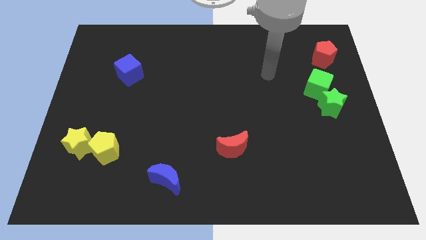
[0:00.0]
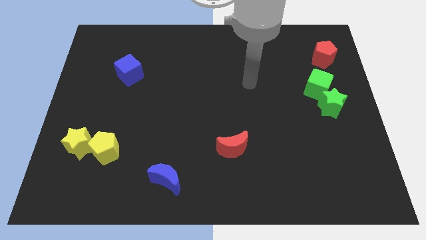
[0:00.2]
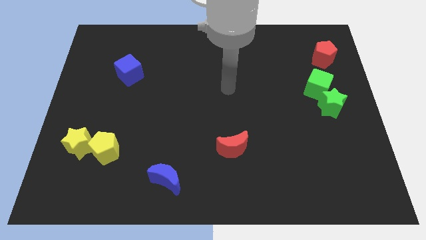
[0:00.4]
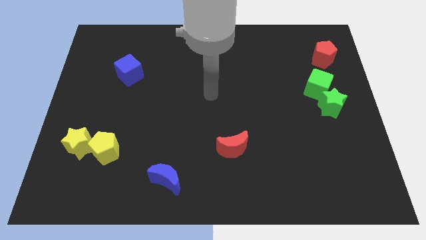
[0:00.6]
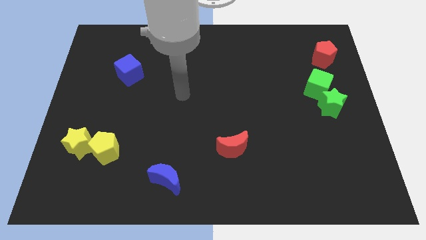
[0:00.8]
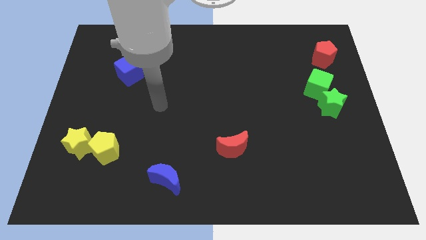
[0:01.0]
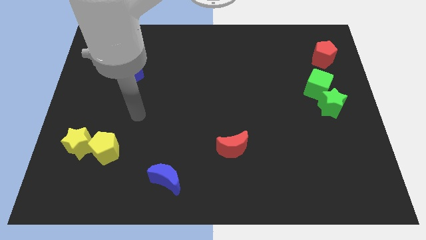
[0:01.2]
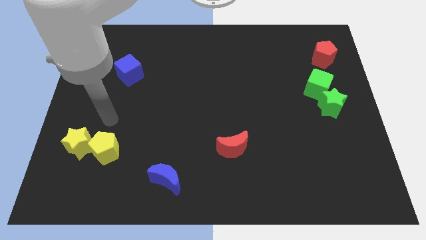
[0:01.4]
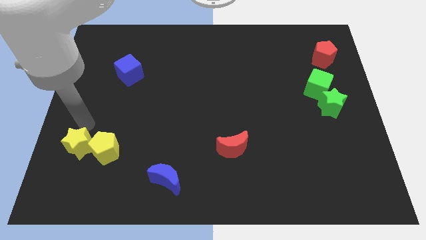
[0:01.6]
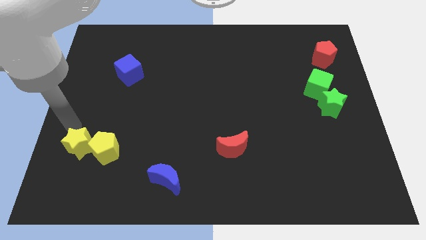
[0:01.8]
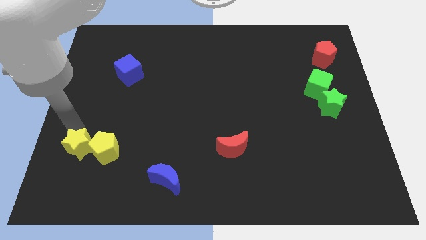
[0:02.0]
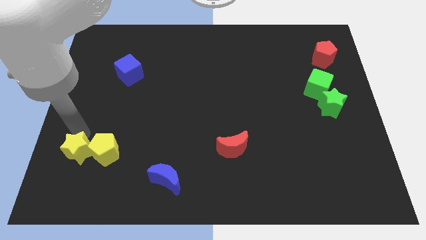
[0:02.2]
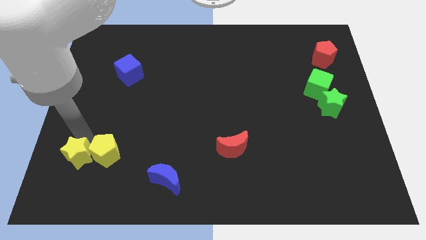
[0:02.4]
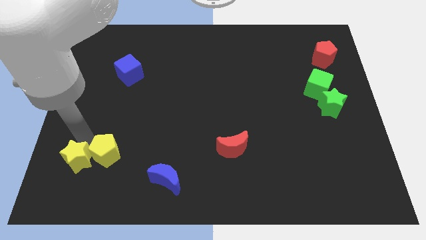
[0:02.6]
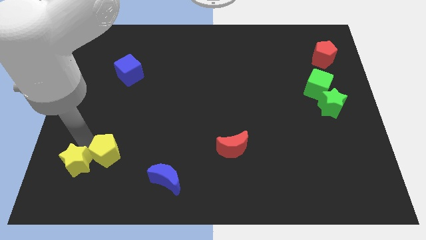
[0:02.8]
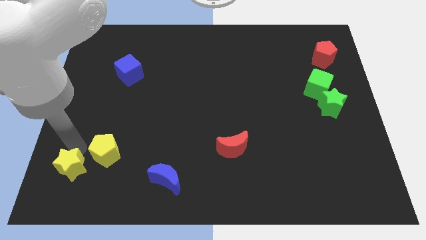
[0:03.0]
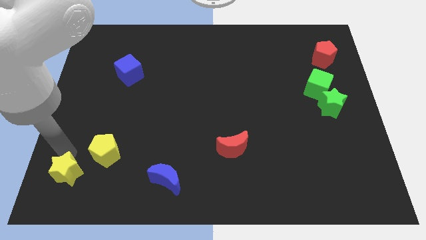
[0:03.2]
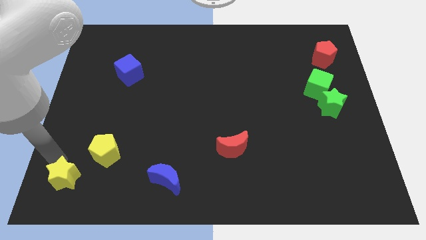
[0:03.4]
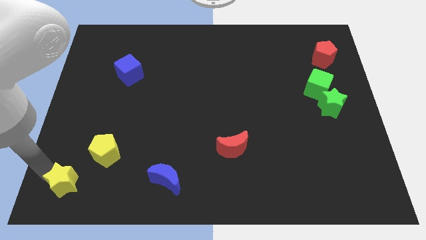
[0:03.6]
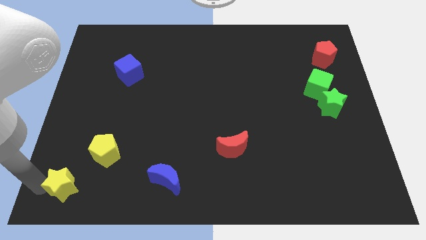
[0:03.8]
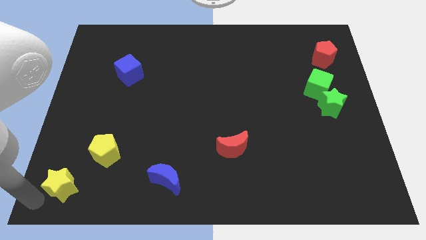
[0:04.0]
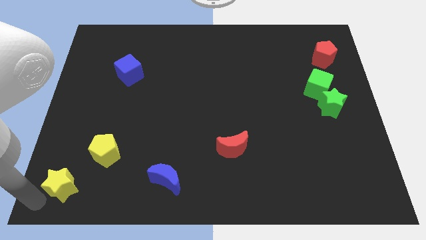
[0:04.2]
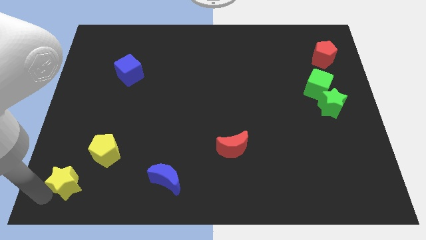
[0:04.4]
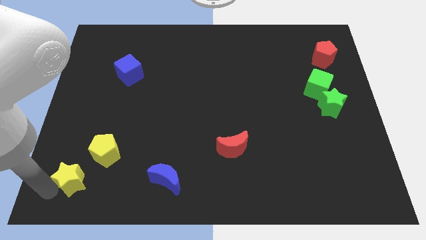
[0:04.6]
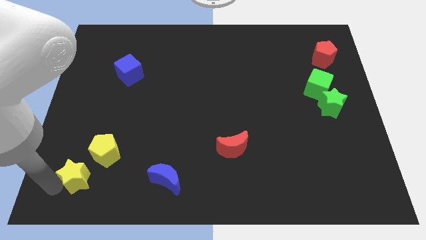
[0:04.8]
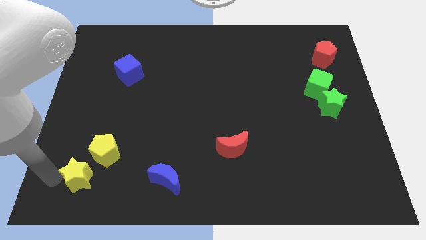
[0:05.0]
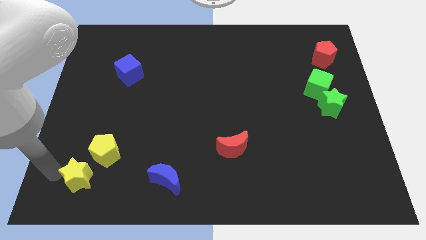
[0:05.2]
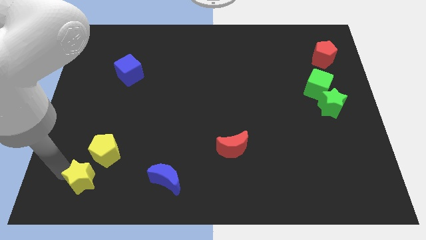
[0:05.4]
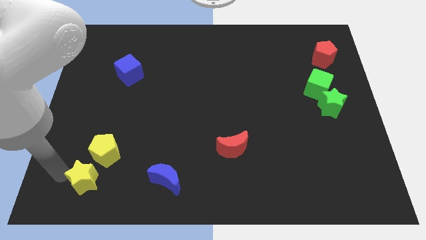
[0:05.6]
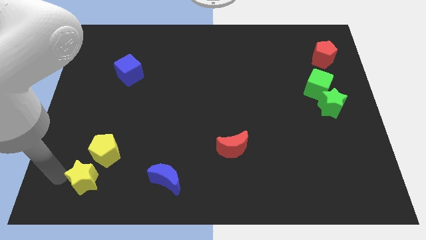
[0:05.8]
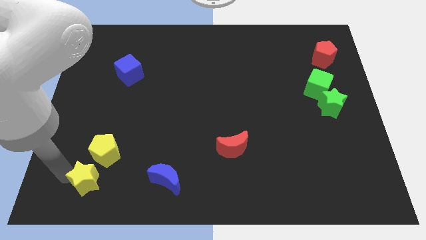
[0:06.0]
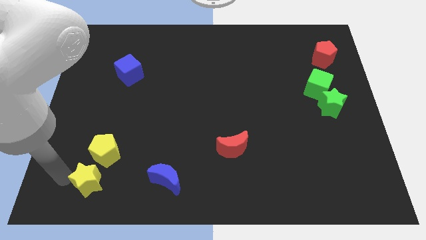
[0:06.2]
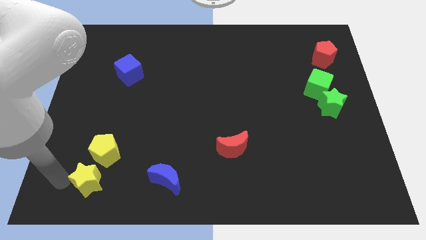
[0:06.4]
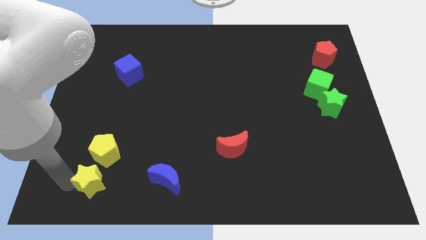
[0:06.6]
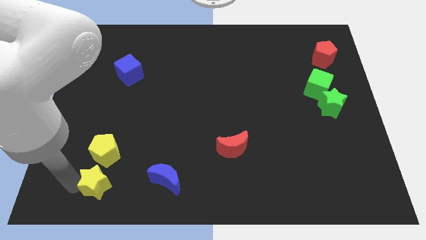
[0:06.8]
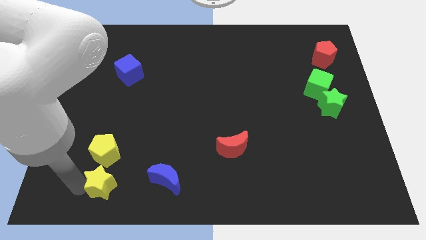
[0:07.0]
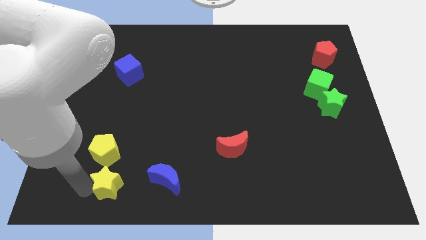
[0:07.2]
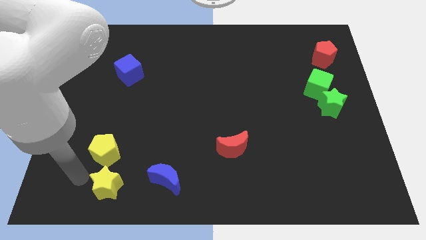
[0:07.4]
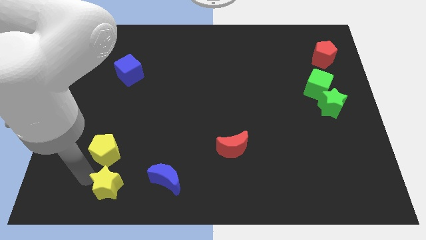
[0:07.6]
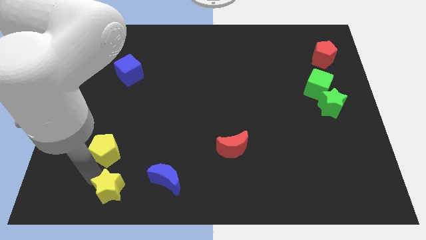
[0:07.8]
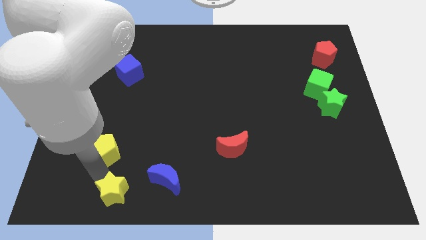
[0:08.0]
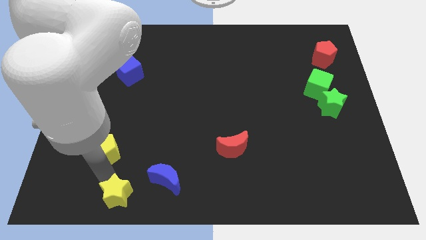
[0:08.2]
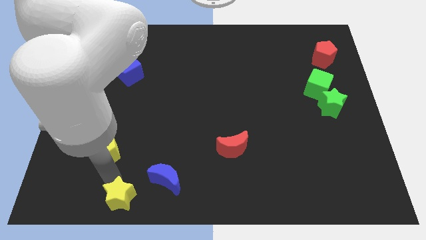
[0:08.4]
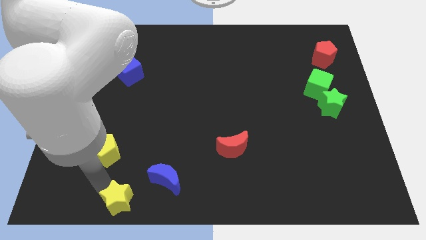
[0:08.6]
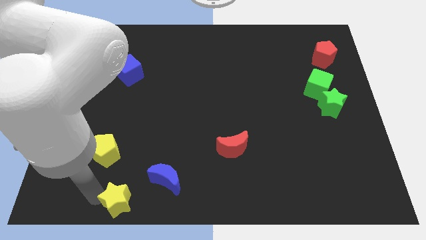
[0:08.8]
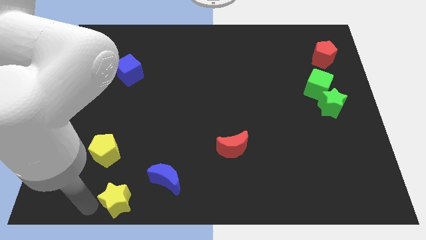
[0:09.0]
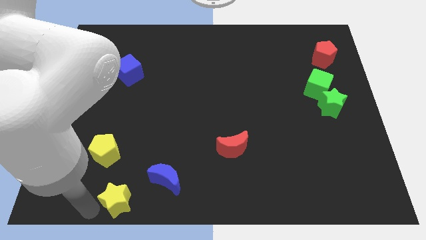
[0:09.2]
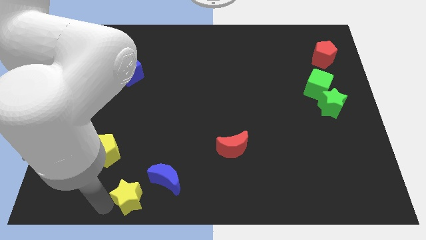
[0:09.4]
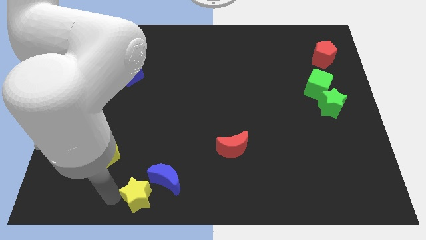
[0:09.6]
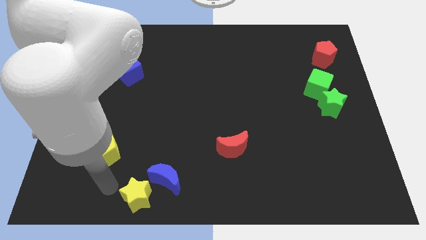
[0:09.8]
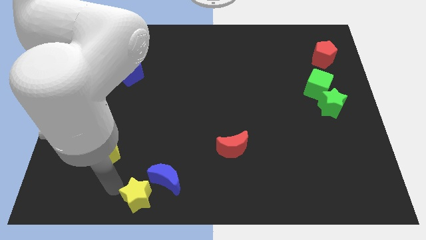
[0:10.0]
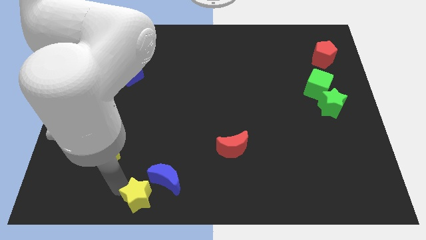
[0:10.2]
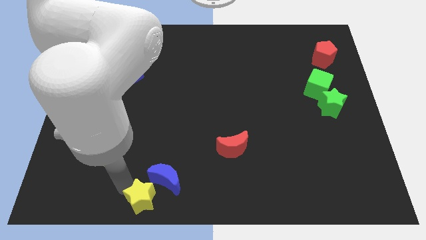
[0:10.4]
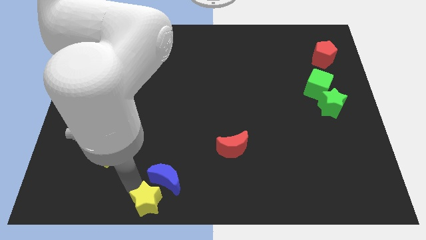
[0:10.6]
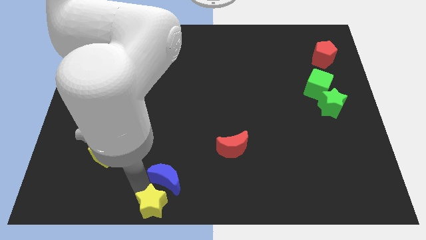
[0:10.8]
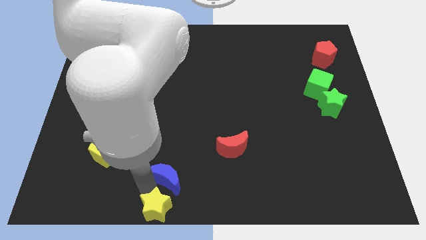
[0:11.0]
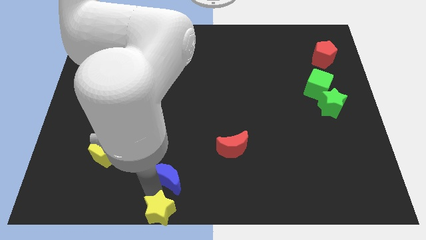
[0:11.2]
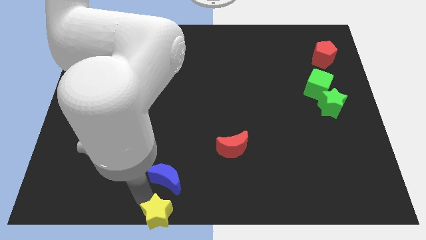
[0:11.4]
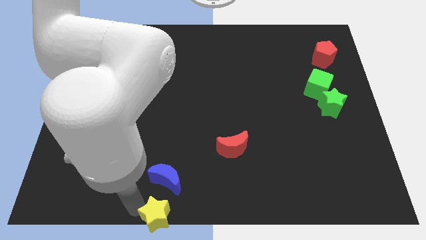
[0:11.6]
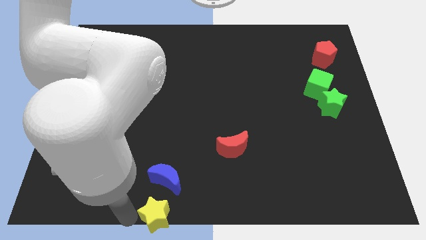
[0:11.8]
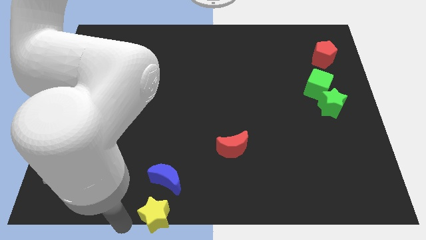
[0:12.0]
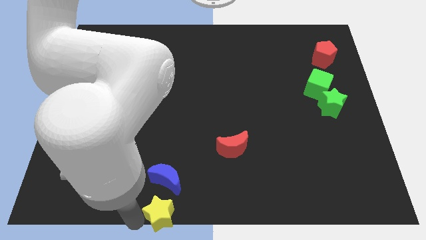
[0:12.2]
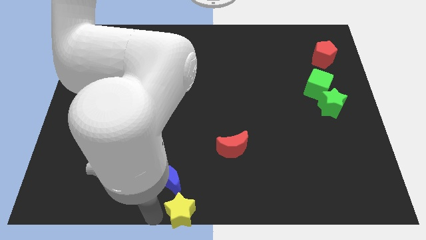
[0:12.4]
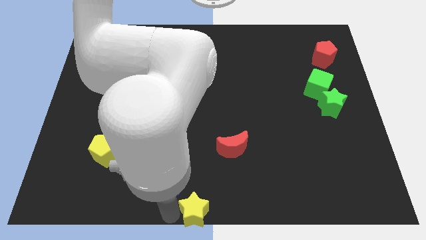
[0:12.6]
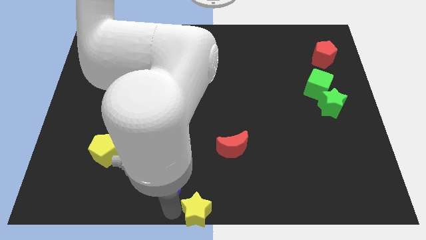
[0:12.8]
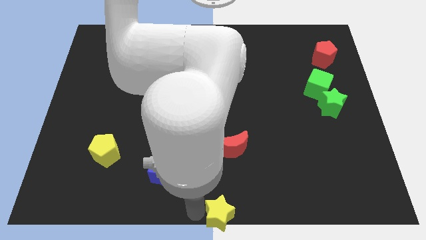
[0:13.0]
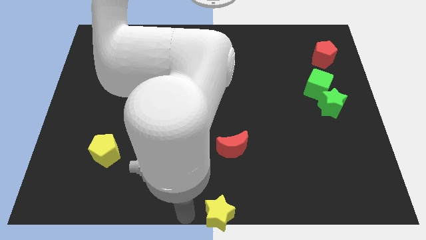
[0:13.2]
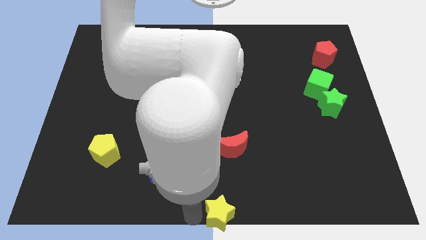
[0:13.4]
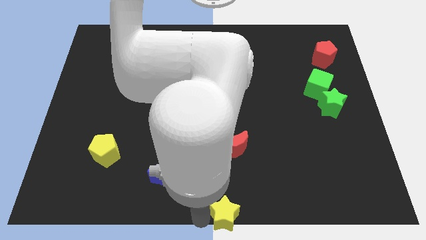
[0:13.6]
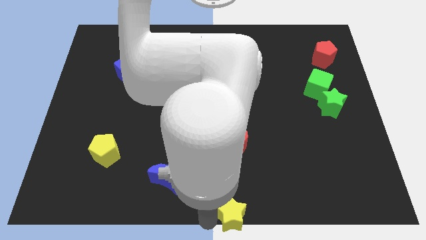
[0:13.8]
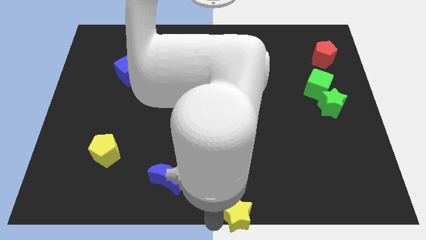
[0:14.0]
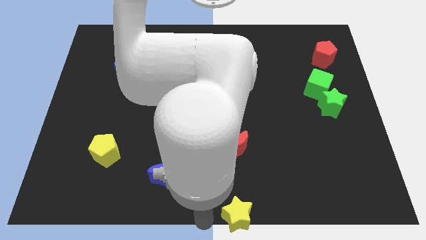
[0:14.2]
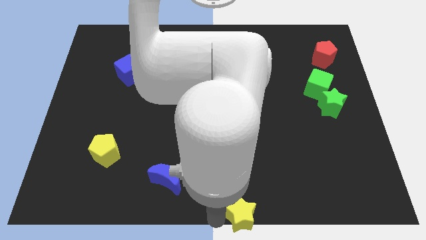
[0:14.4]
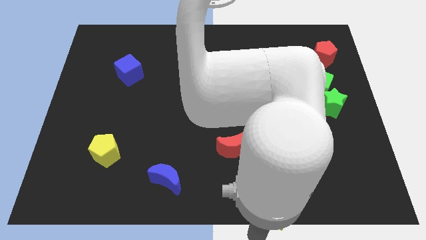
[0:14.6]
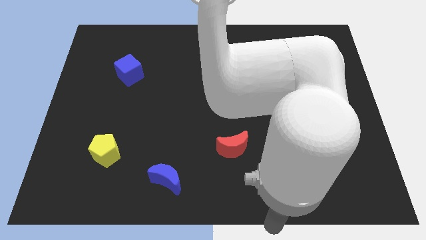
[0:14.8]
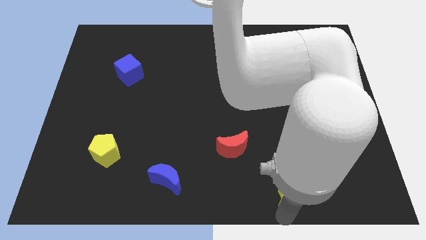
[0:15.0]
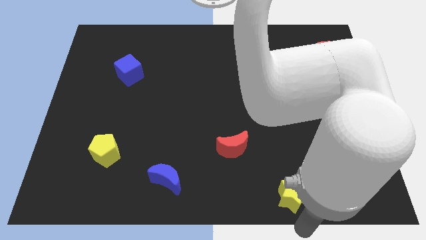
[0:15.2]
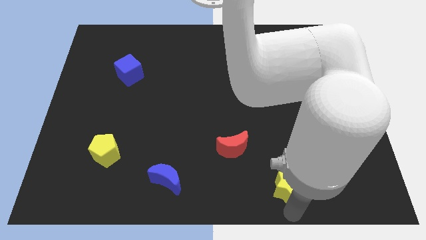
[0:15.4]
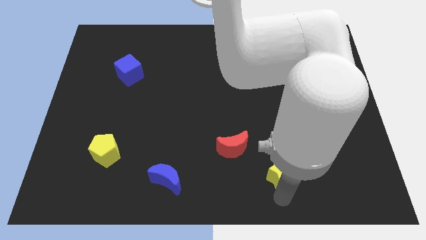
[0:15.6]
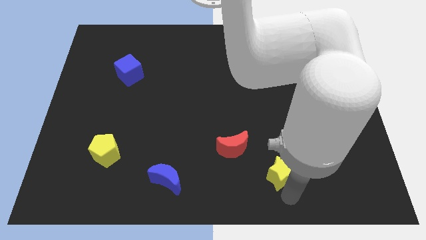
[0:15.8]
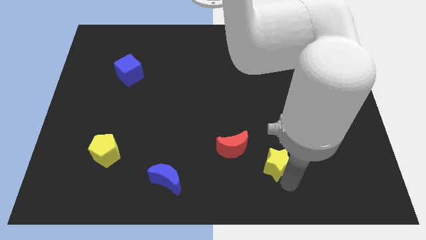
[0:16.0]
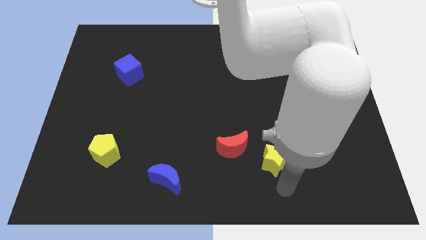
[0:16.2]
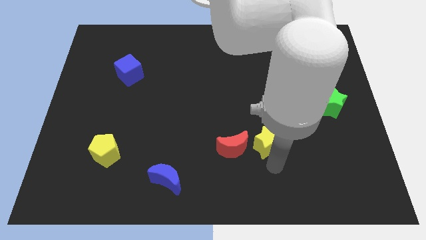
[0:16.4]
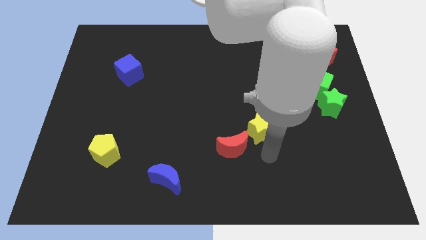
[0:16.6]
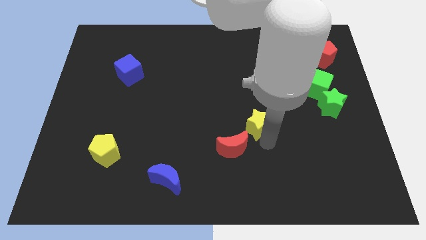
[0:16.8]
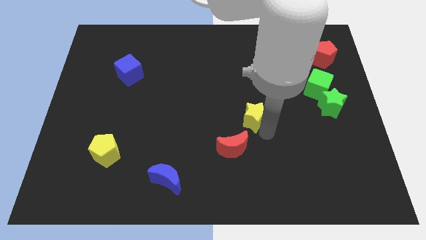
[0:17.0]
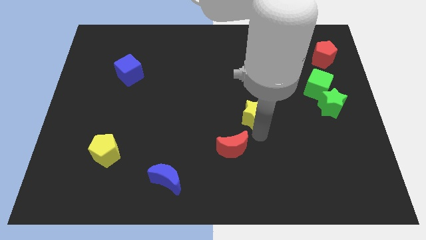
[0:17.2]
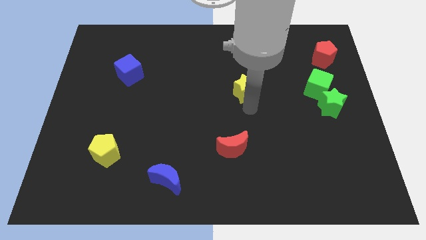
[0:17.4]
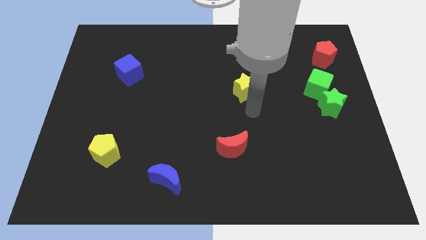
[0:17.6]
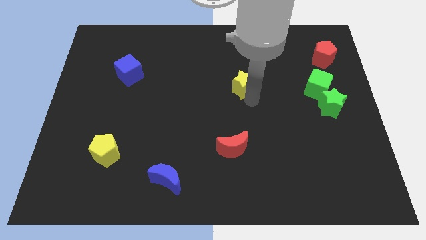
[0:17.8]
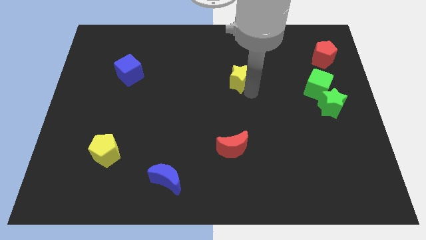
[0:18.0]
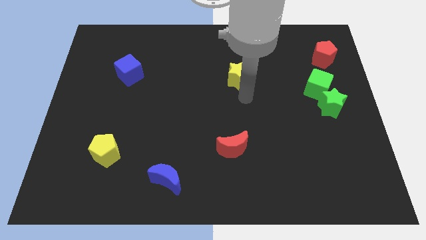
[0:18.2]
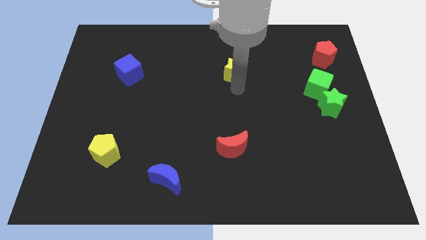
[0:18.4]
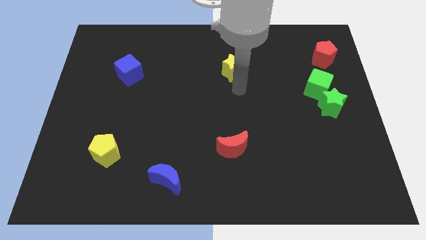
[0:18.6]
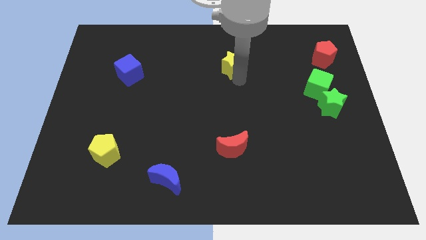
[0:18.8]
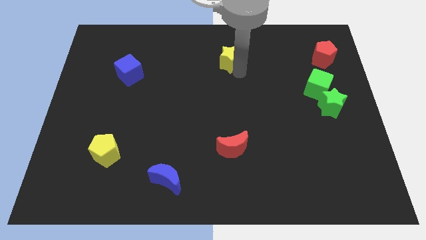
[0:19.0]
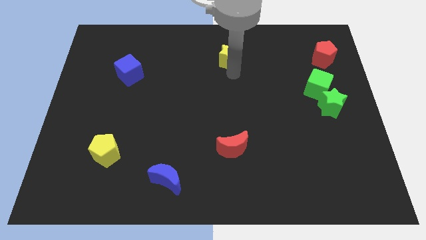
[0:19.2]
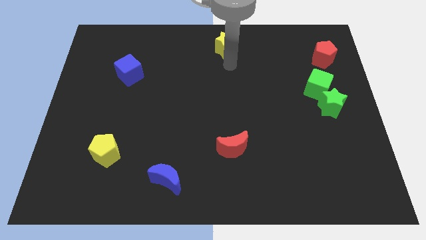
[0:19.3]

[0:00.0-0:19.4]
put the yellow star to the top side
